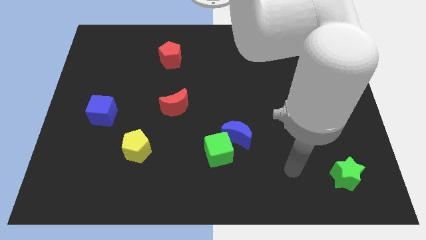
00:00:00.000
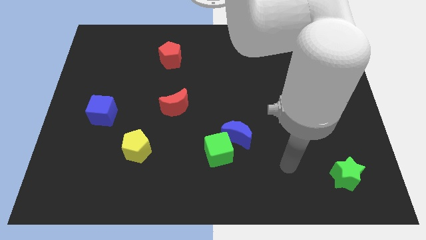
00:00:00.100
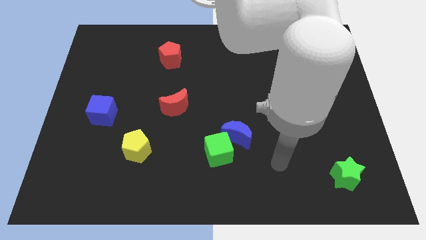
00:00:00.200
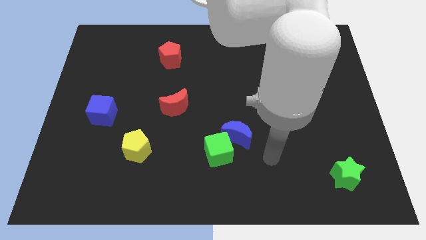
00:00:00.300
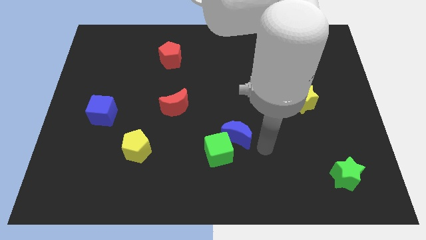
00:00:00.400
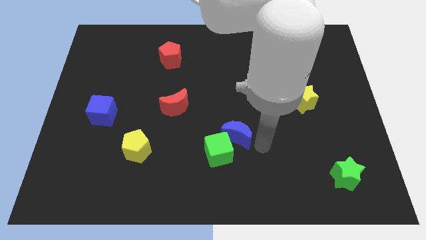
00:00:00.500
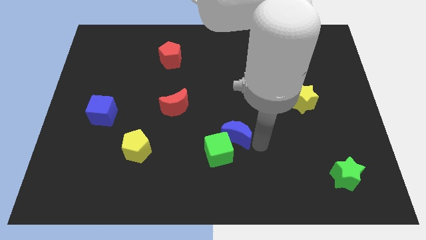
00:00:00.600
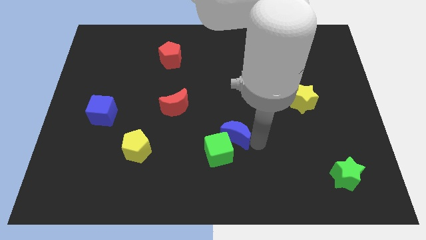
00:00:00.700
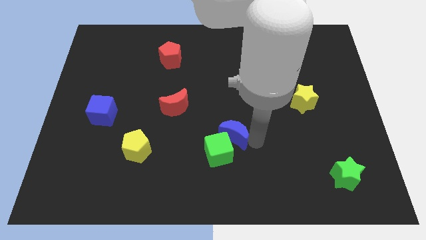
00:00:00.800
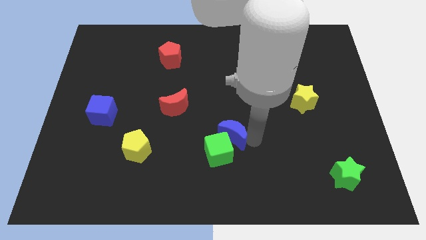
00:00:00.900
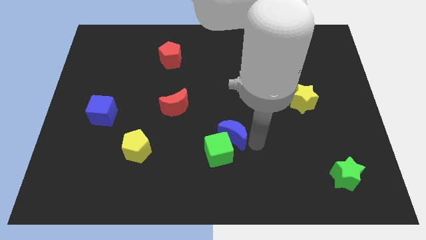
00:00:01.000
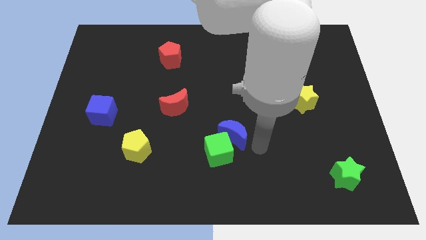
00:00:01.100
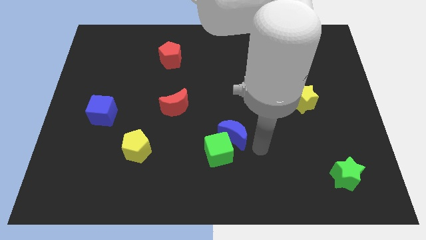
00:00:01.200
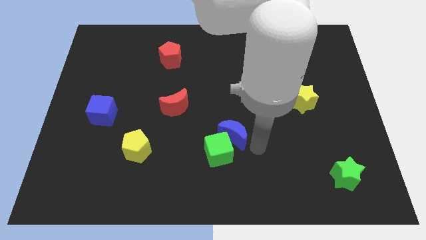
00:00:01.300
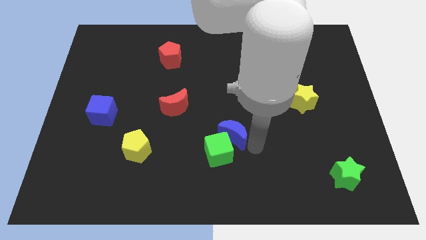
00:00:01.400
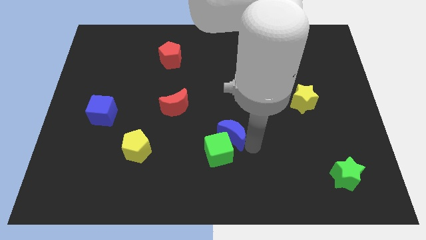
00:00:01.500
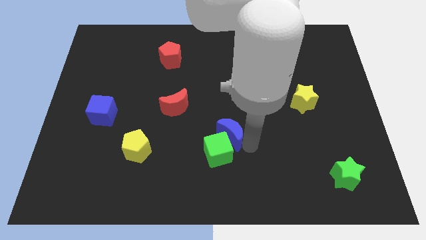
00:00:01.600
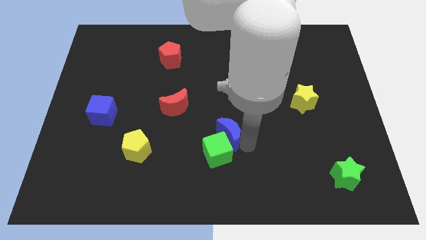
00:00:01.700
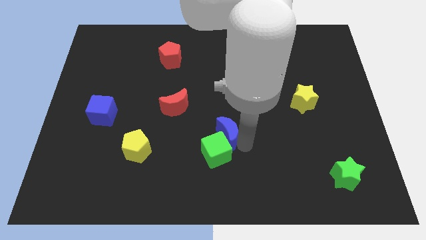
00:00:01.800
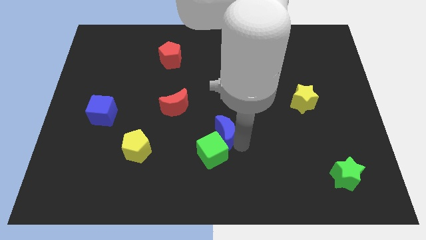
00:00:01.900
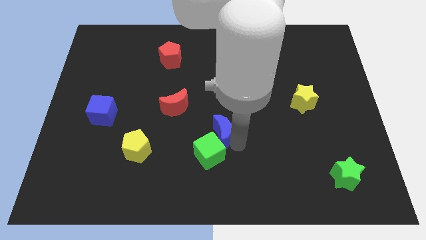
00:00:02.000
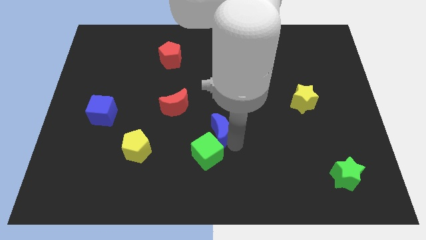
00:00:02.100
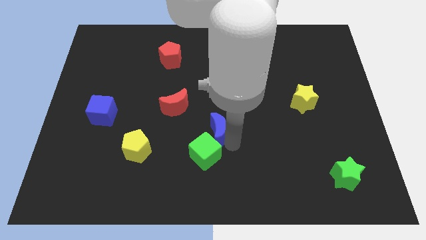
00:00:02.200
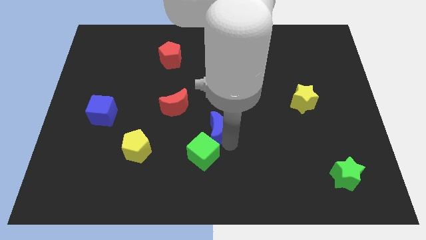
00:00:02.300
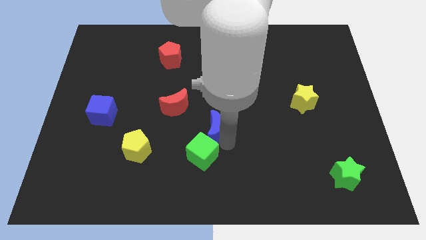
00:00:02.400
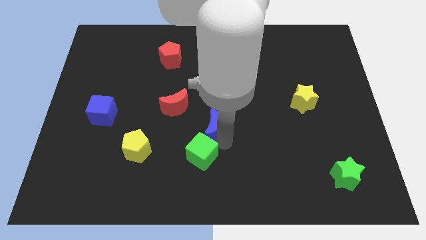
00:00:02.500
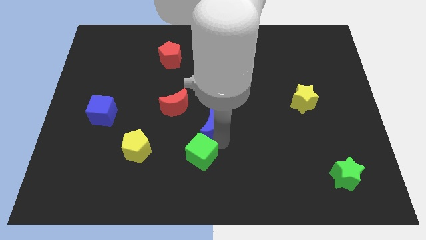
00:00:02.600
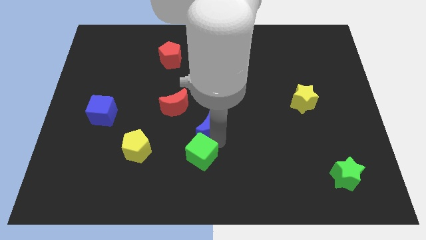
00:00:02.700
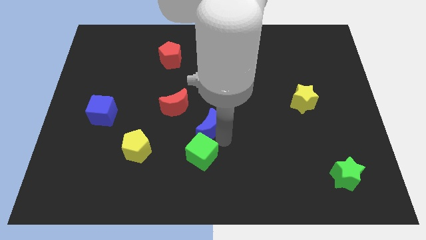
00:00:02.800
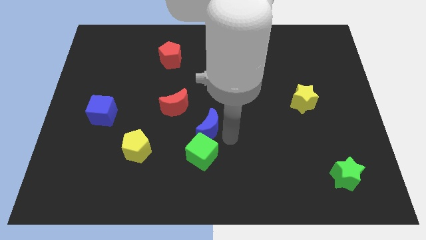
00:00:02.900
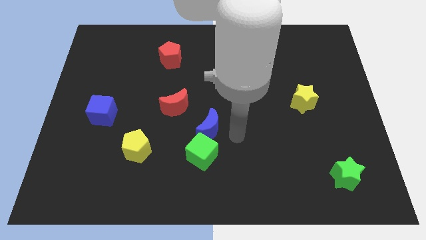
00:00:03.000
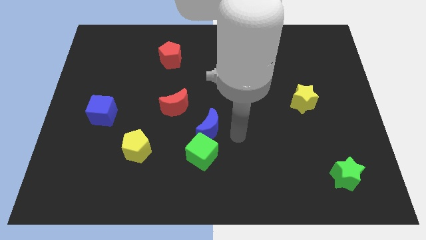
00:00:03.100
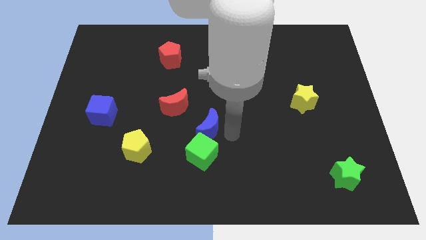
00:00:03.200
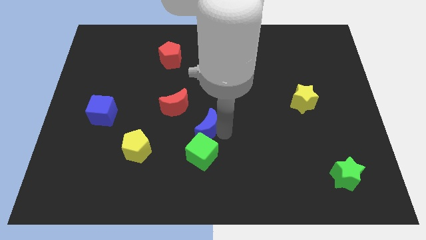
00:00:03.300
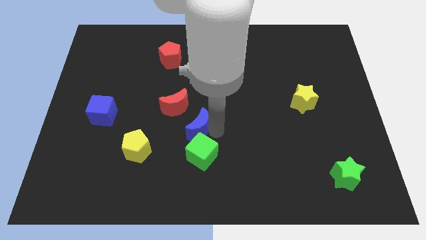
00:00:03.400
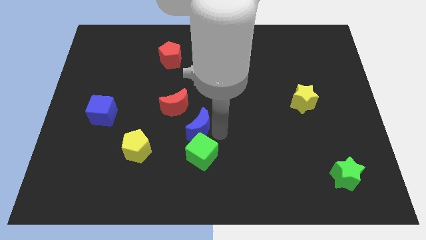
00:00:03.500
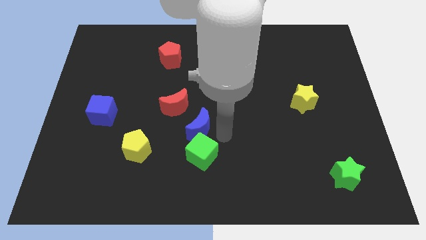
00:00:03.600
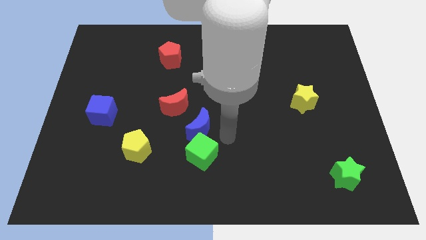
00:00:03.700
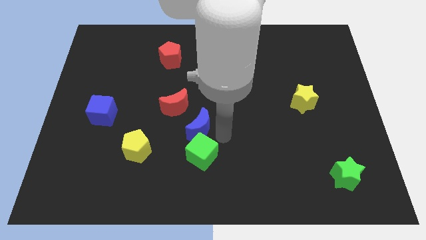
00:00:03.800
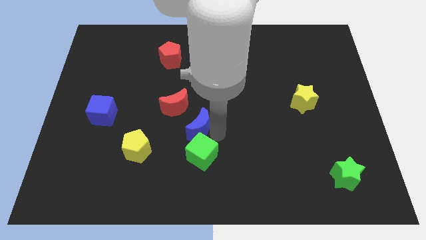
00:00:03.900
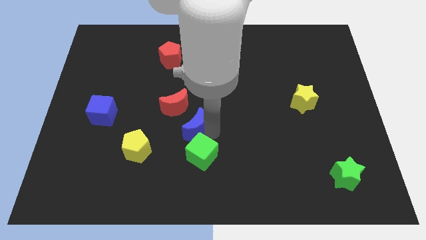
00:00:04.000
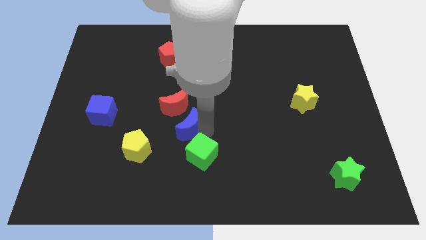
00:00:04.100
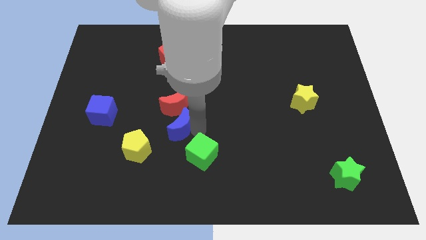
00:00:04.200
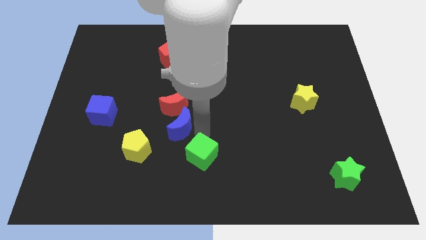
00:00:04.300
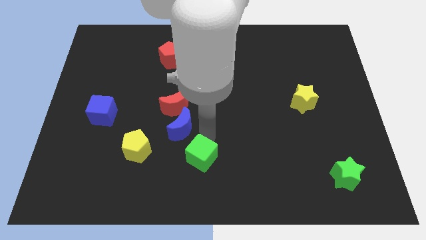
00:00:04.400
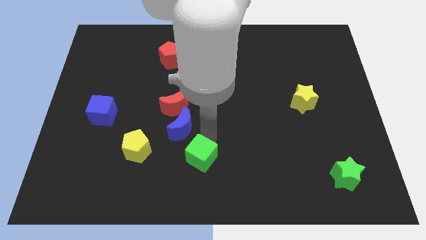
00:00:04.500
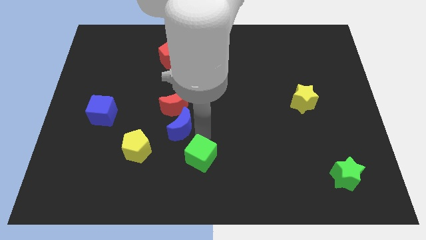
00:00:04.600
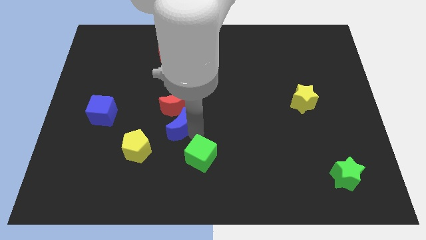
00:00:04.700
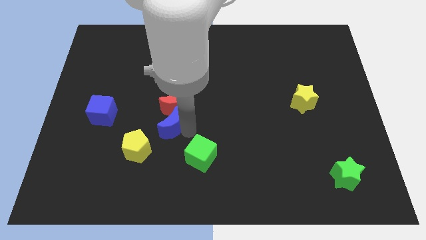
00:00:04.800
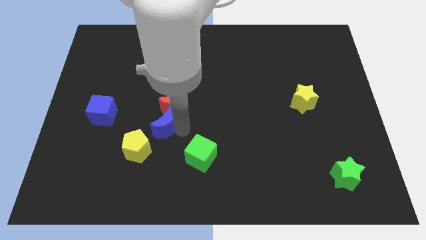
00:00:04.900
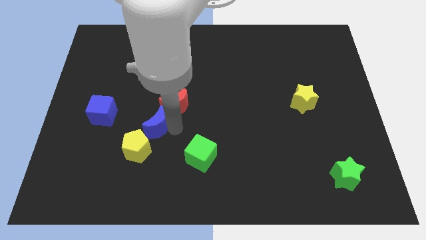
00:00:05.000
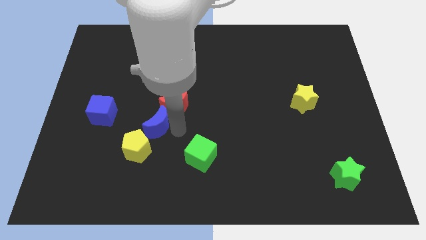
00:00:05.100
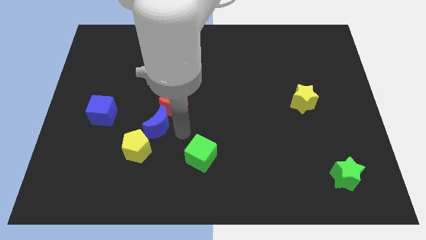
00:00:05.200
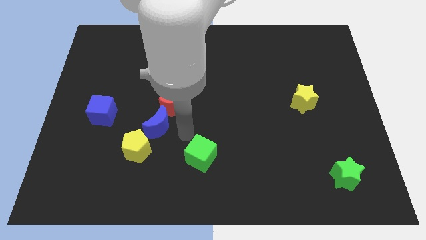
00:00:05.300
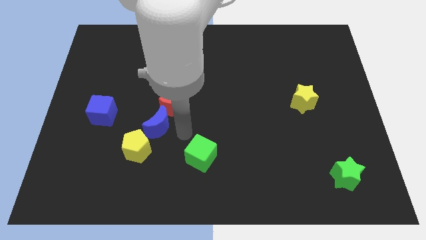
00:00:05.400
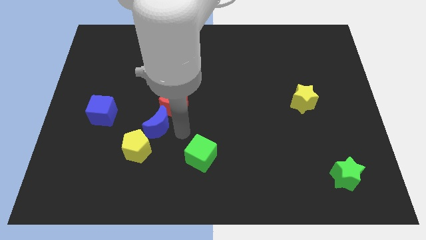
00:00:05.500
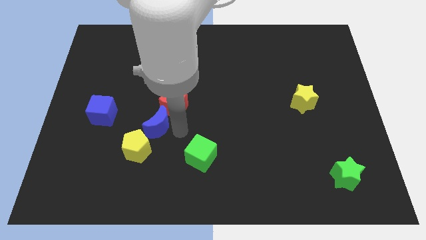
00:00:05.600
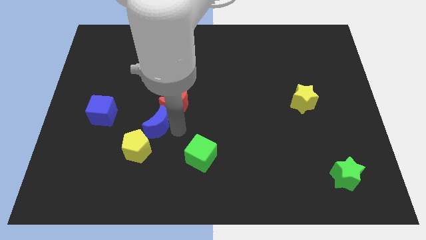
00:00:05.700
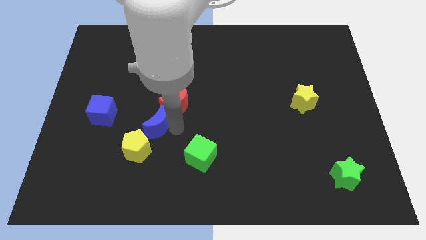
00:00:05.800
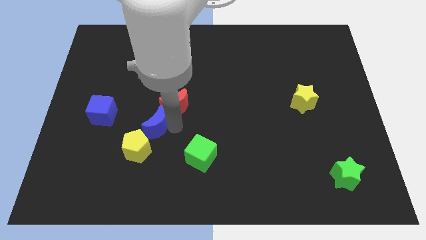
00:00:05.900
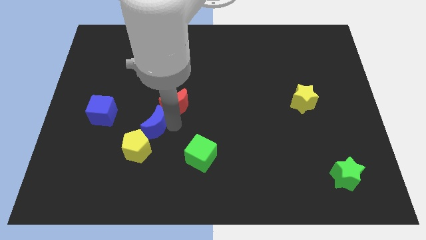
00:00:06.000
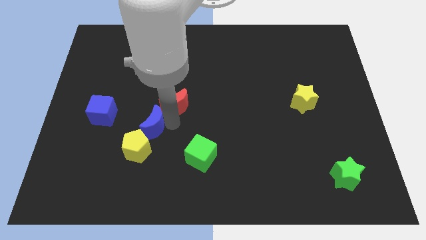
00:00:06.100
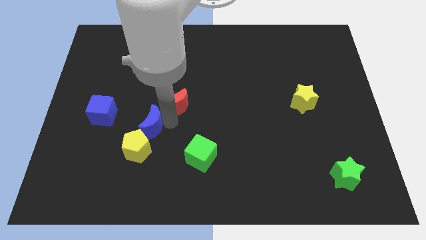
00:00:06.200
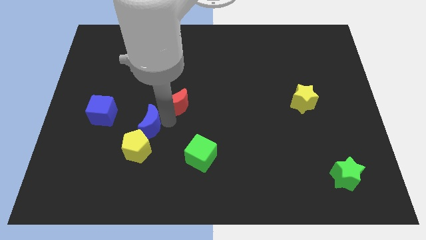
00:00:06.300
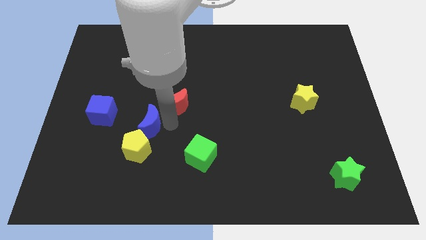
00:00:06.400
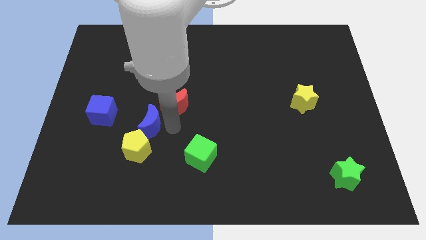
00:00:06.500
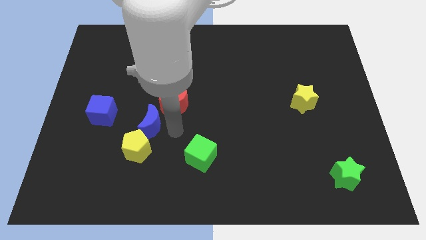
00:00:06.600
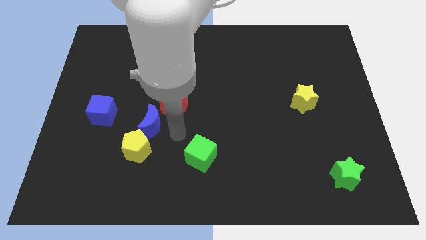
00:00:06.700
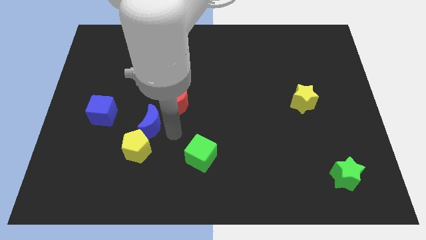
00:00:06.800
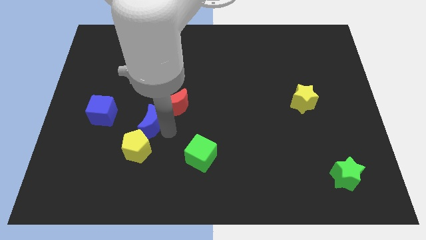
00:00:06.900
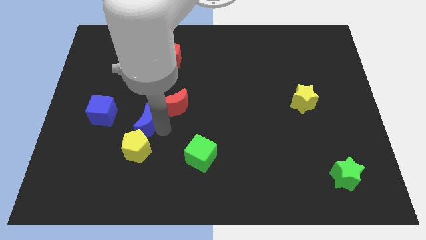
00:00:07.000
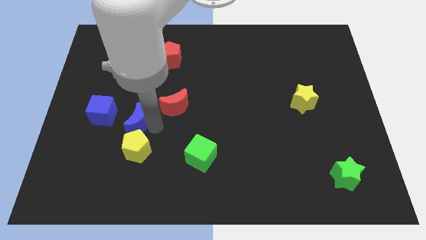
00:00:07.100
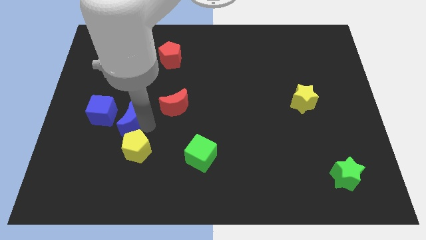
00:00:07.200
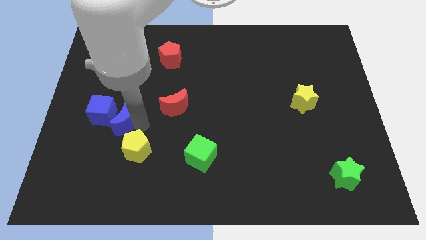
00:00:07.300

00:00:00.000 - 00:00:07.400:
push the blue moon to the blue cube
